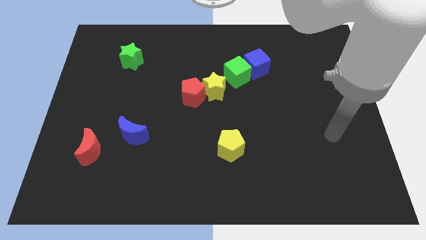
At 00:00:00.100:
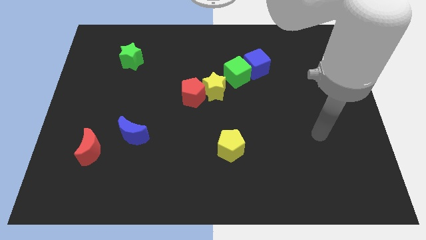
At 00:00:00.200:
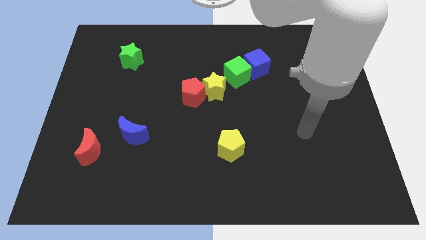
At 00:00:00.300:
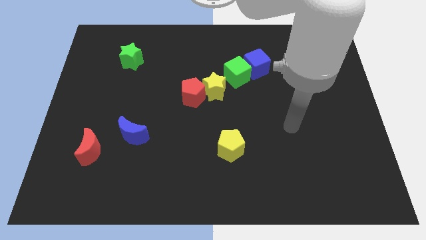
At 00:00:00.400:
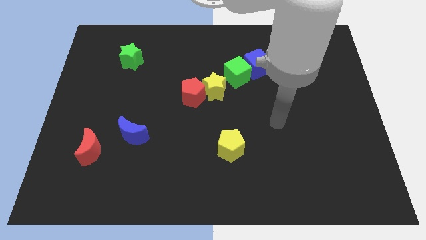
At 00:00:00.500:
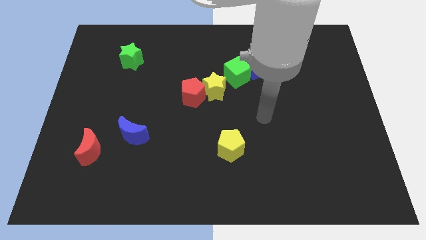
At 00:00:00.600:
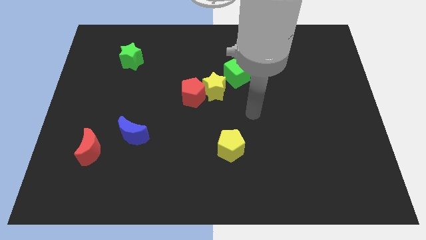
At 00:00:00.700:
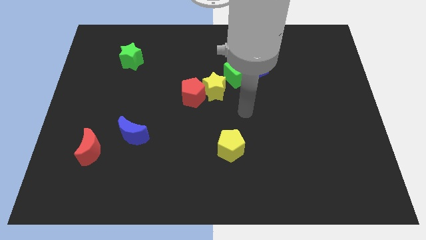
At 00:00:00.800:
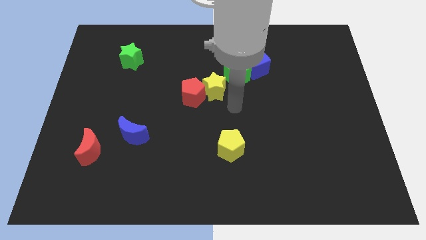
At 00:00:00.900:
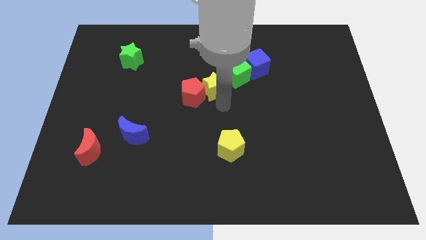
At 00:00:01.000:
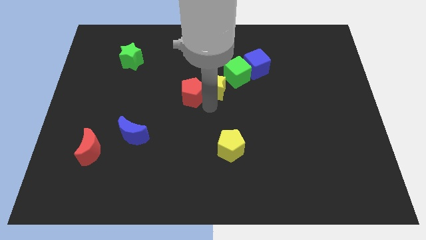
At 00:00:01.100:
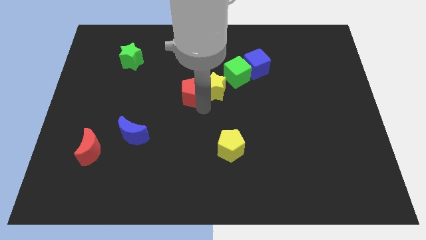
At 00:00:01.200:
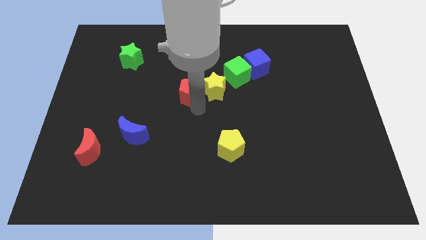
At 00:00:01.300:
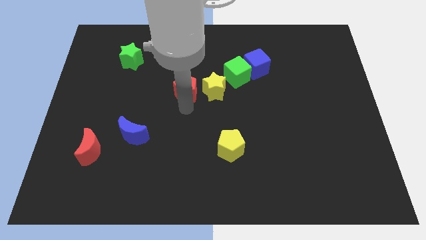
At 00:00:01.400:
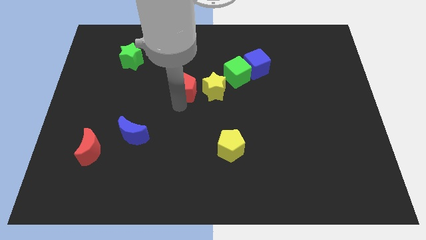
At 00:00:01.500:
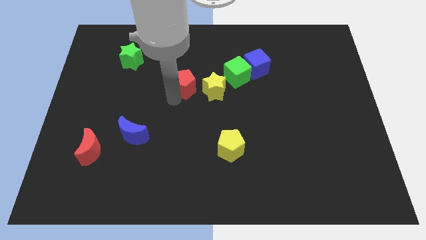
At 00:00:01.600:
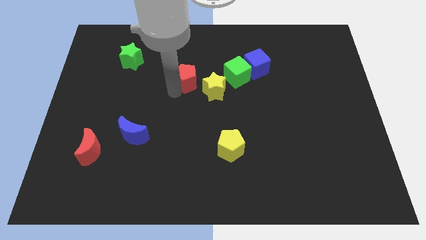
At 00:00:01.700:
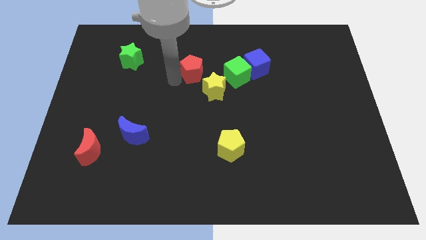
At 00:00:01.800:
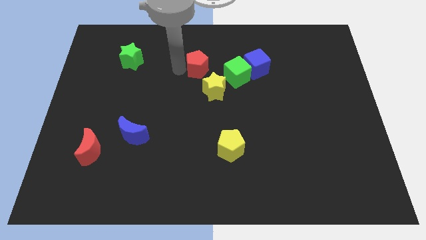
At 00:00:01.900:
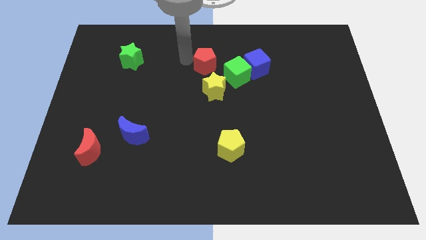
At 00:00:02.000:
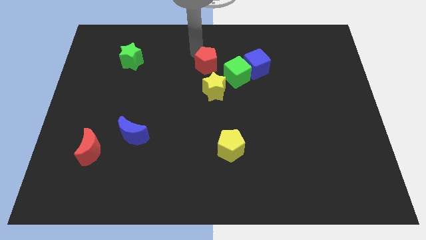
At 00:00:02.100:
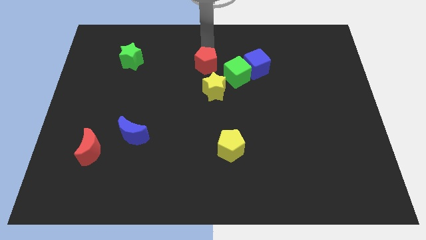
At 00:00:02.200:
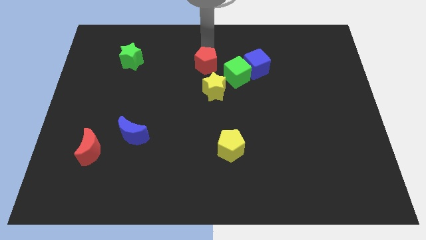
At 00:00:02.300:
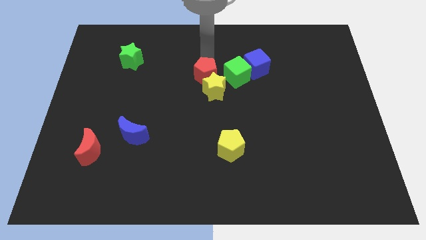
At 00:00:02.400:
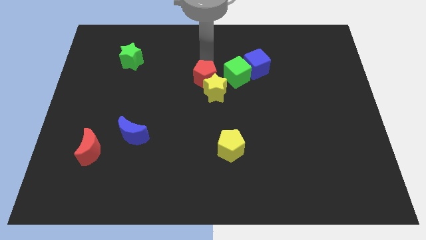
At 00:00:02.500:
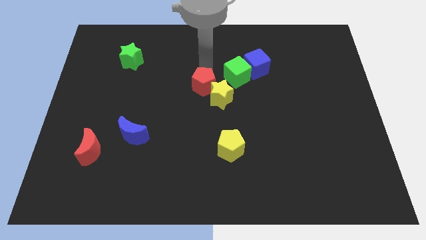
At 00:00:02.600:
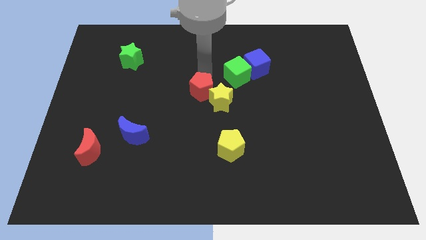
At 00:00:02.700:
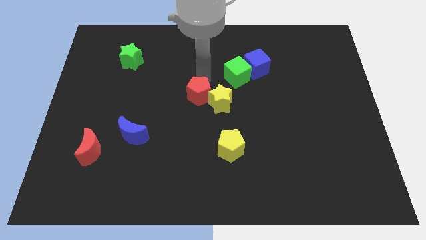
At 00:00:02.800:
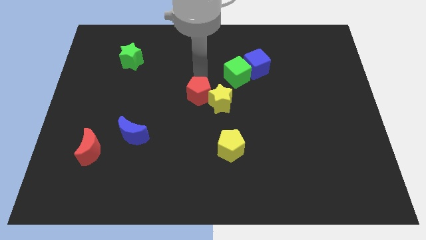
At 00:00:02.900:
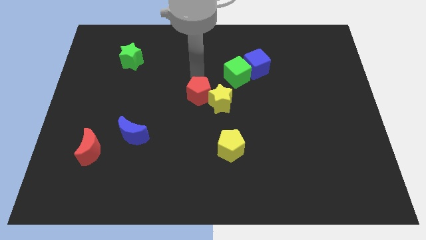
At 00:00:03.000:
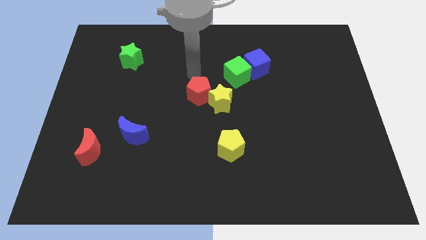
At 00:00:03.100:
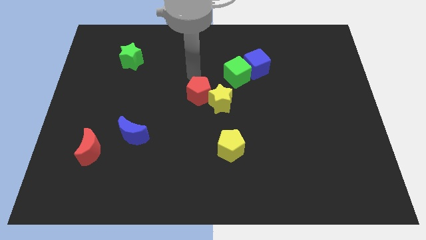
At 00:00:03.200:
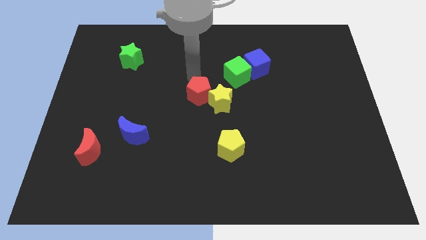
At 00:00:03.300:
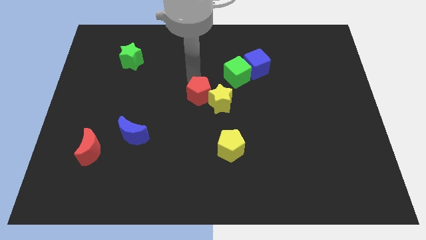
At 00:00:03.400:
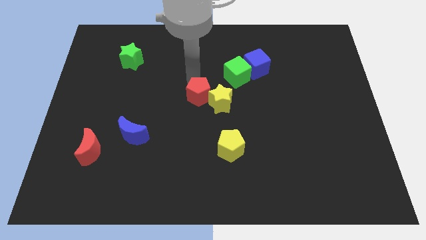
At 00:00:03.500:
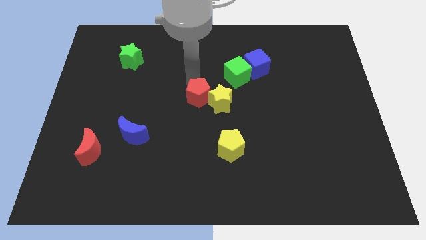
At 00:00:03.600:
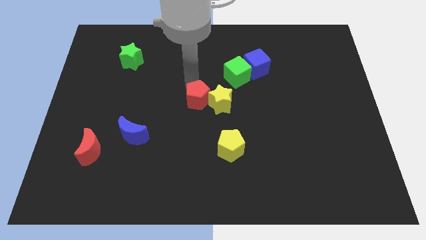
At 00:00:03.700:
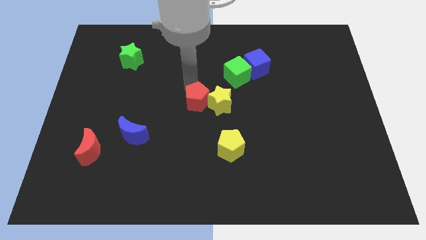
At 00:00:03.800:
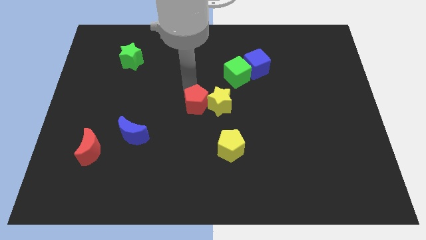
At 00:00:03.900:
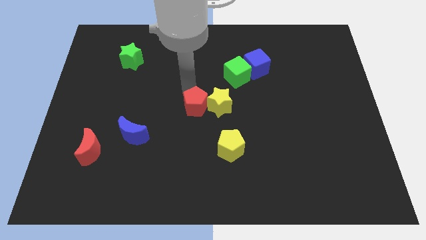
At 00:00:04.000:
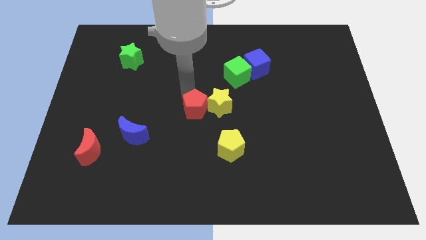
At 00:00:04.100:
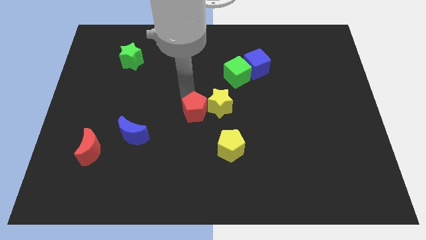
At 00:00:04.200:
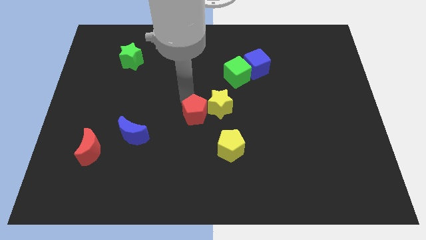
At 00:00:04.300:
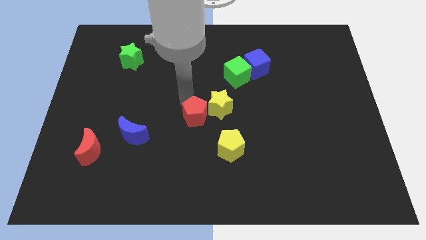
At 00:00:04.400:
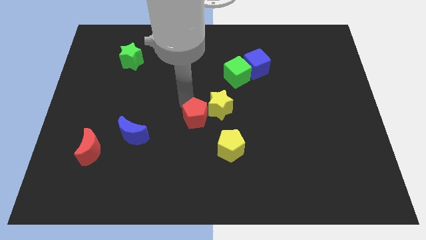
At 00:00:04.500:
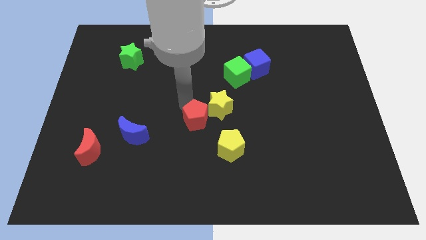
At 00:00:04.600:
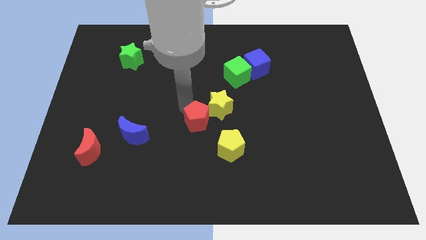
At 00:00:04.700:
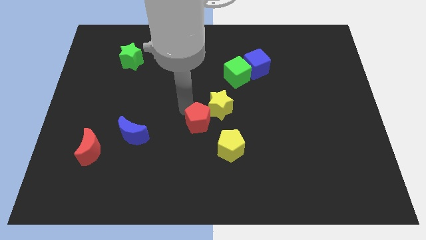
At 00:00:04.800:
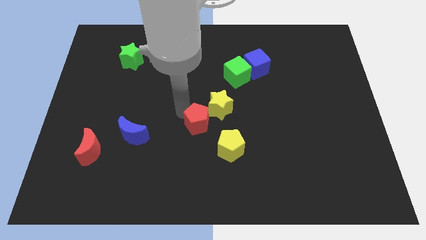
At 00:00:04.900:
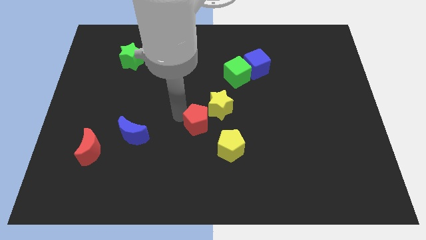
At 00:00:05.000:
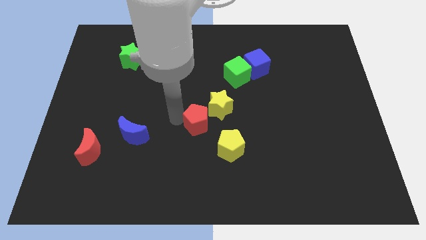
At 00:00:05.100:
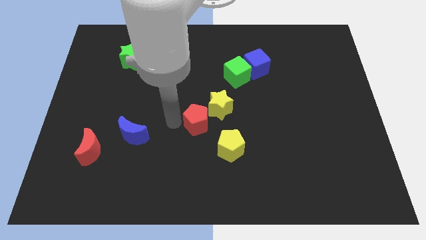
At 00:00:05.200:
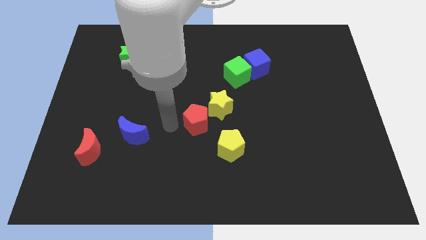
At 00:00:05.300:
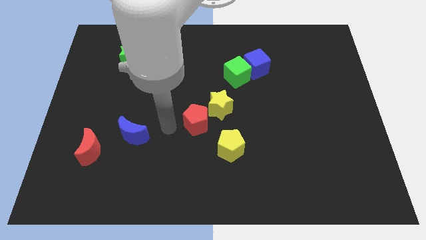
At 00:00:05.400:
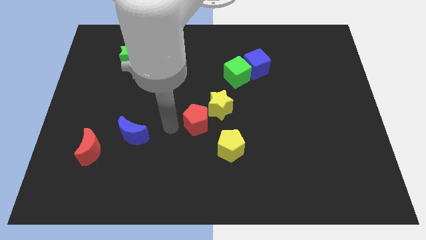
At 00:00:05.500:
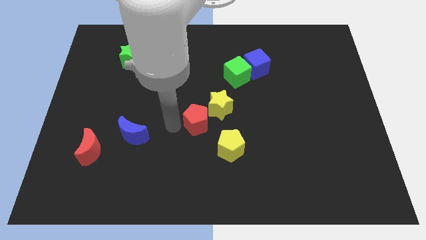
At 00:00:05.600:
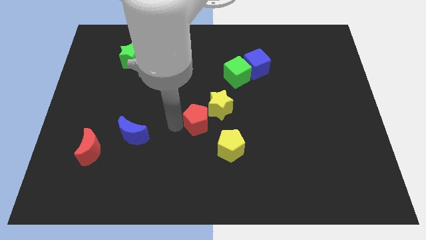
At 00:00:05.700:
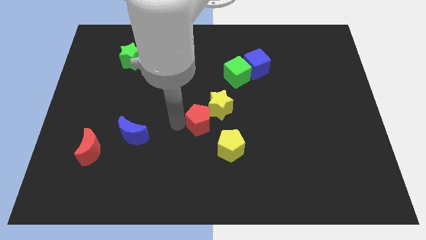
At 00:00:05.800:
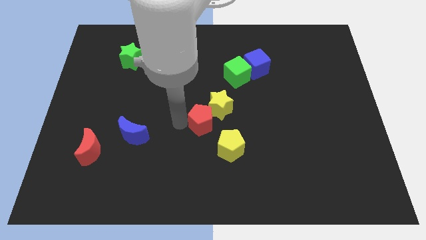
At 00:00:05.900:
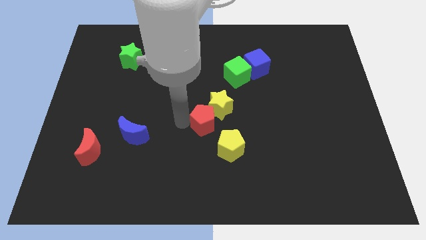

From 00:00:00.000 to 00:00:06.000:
slide the red pentagon a bit downwards and to the right diagonally

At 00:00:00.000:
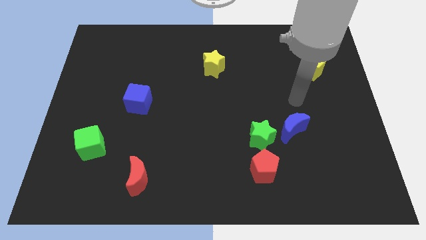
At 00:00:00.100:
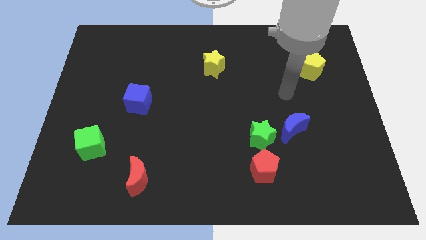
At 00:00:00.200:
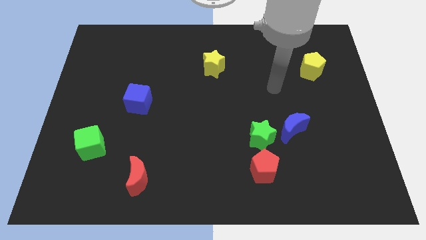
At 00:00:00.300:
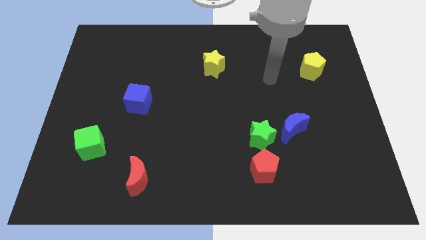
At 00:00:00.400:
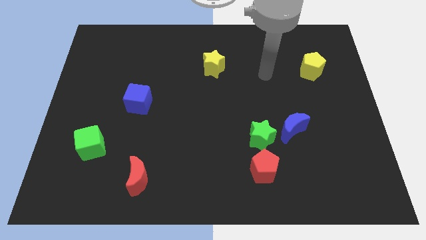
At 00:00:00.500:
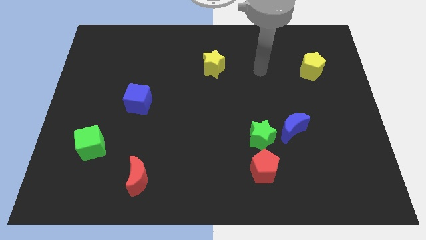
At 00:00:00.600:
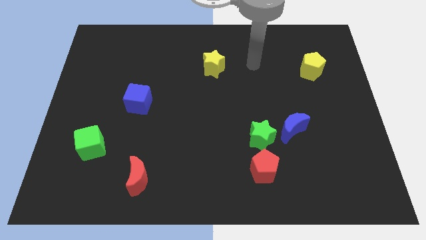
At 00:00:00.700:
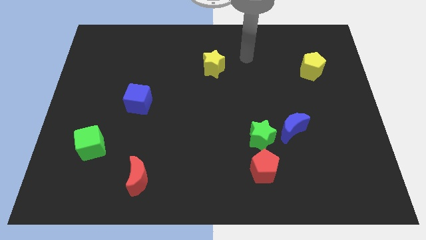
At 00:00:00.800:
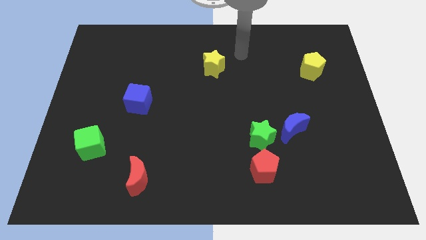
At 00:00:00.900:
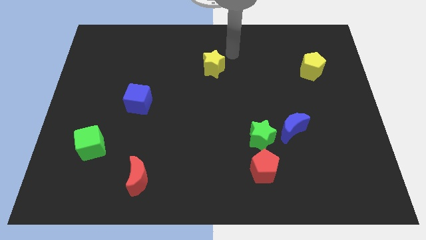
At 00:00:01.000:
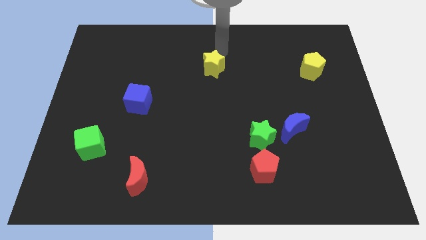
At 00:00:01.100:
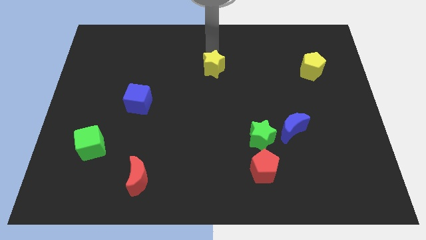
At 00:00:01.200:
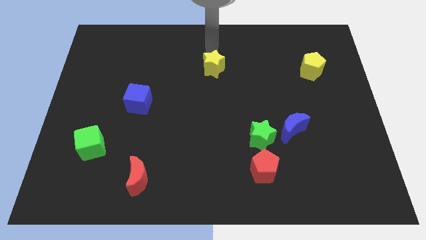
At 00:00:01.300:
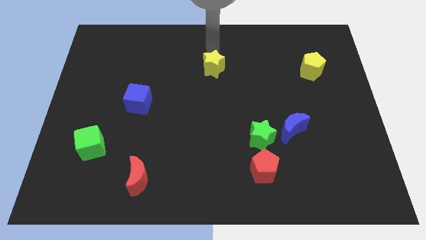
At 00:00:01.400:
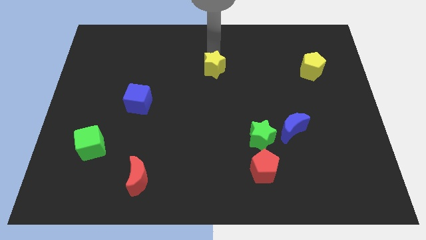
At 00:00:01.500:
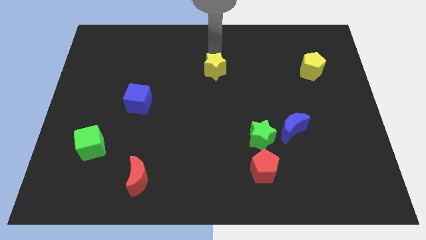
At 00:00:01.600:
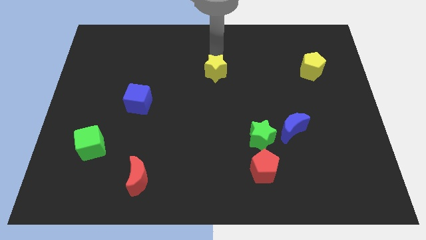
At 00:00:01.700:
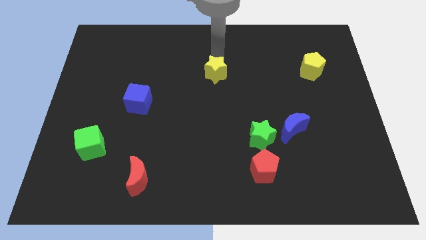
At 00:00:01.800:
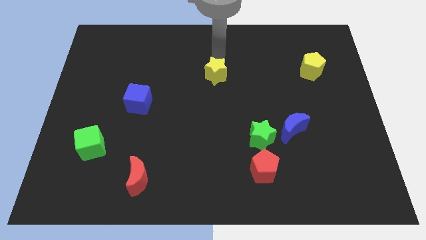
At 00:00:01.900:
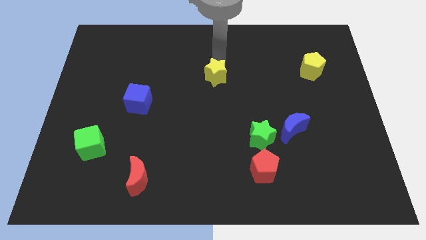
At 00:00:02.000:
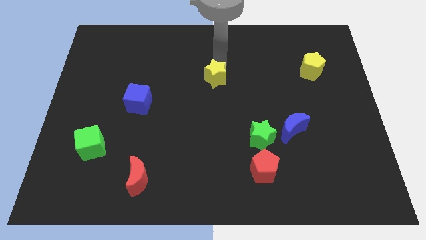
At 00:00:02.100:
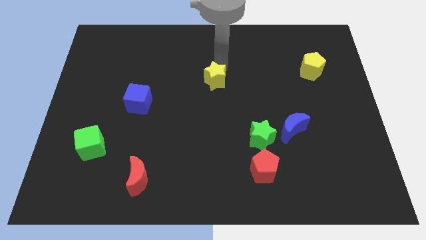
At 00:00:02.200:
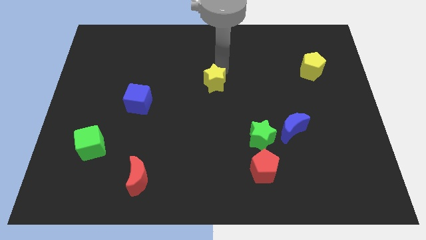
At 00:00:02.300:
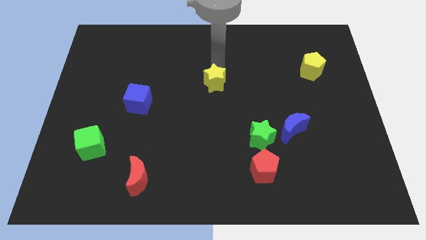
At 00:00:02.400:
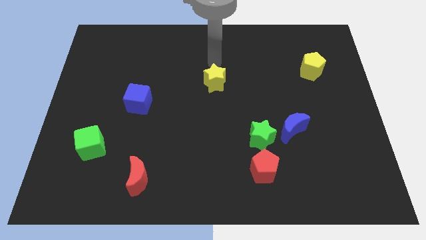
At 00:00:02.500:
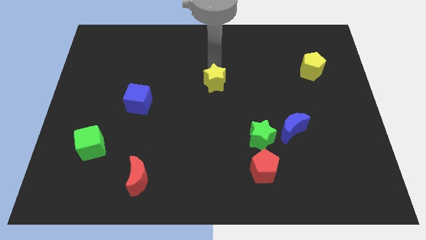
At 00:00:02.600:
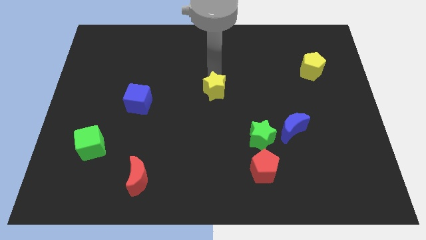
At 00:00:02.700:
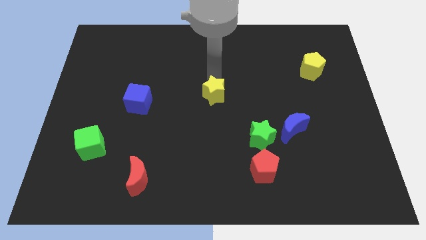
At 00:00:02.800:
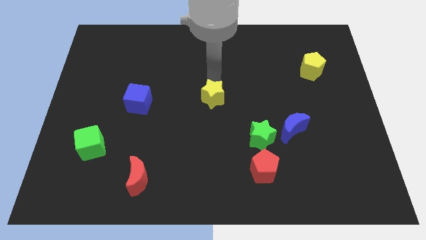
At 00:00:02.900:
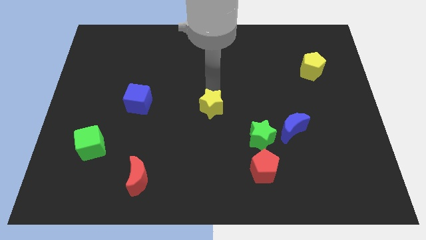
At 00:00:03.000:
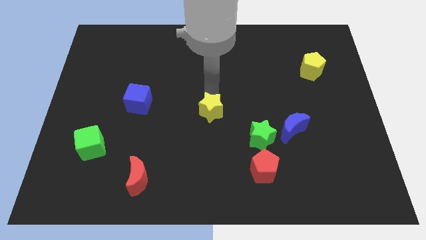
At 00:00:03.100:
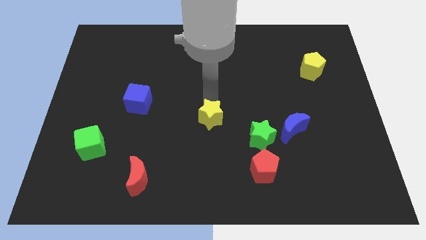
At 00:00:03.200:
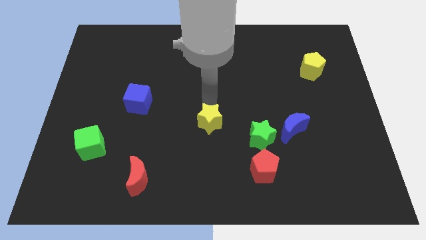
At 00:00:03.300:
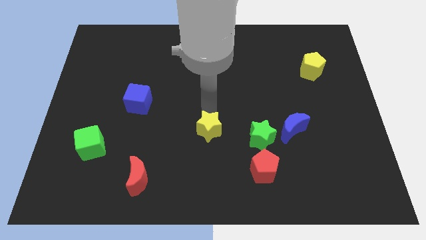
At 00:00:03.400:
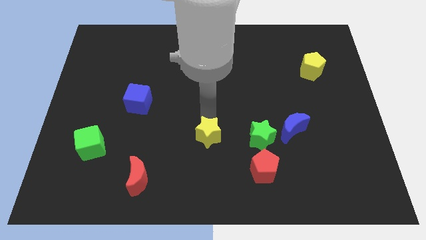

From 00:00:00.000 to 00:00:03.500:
move the yellow star downwards
